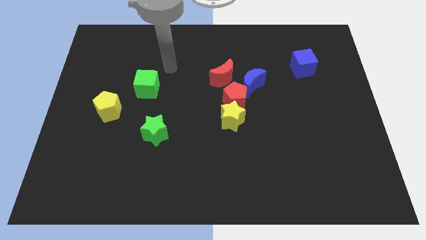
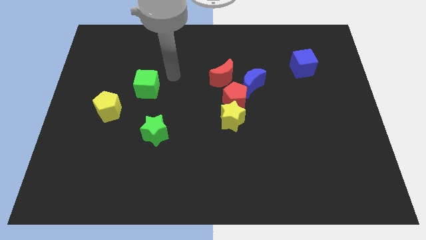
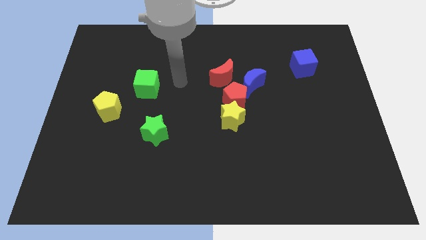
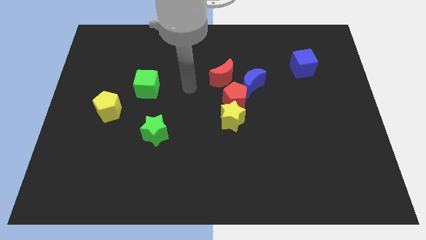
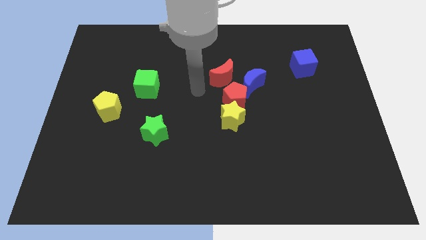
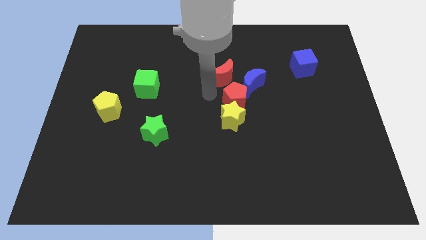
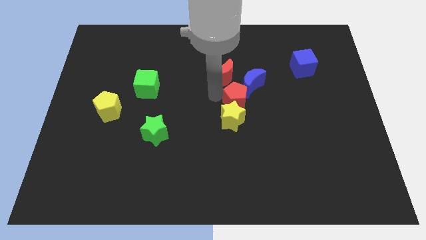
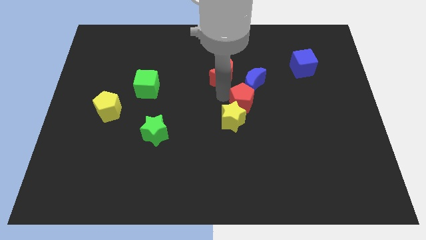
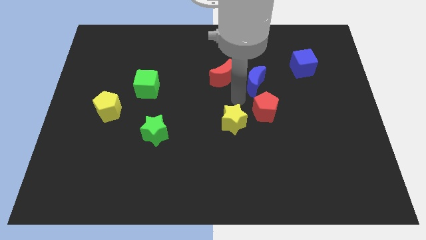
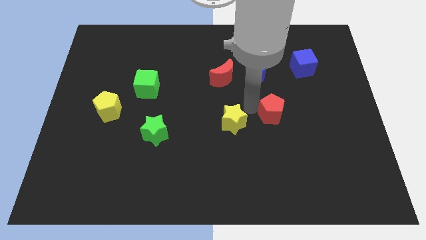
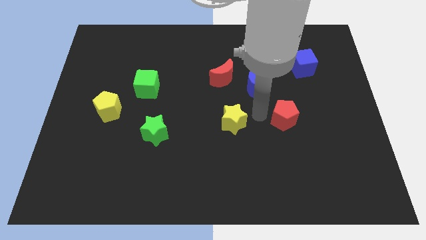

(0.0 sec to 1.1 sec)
move the yellow star away from the red pentagon

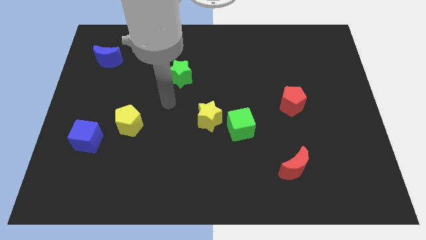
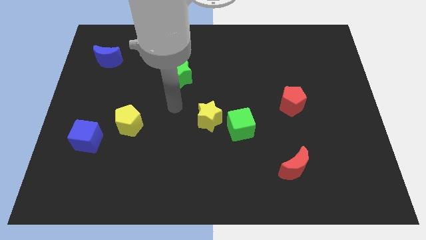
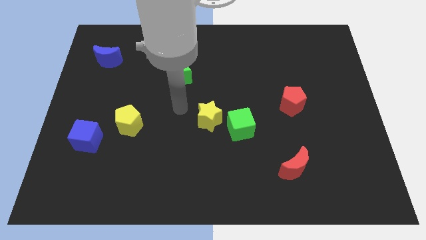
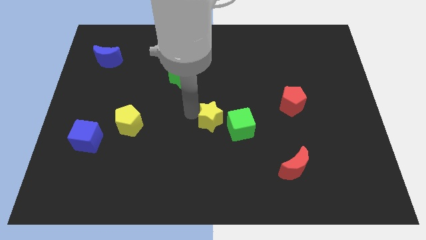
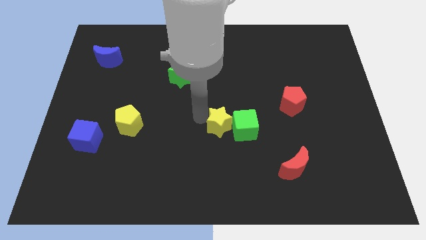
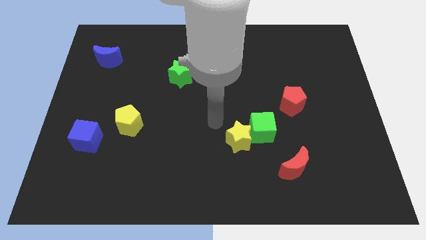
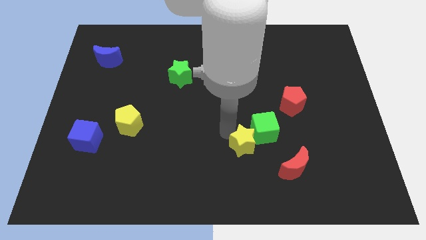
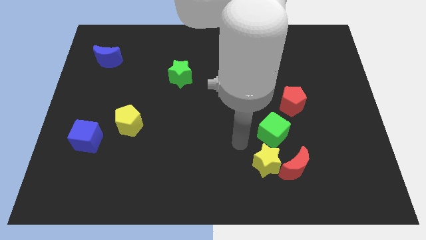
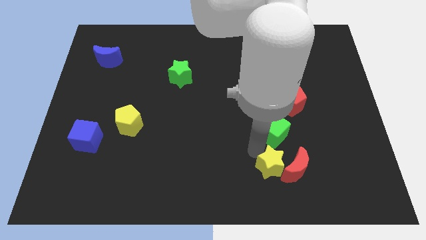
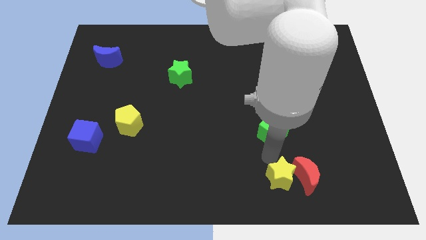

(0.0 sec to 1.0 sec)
pull the green cube apart from the yellow star

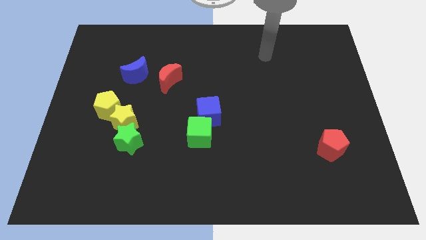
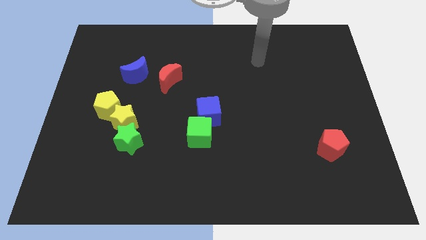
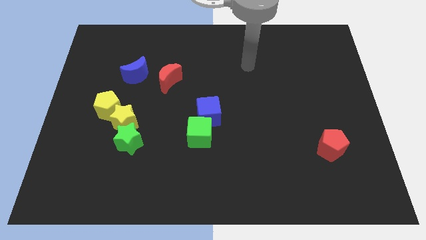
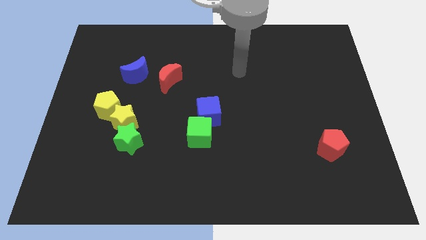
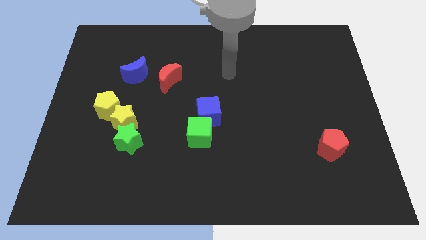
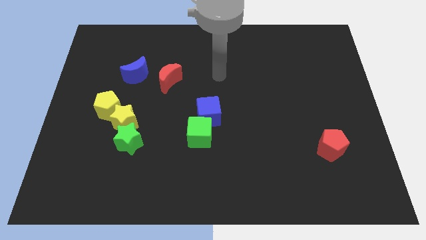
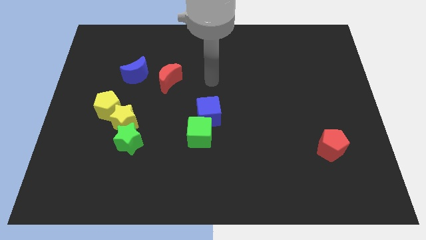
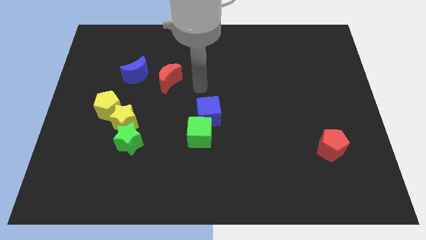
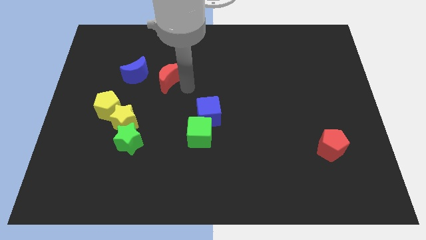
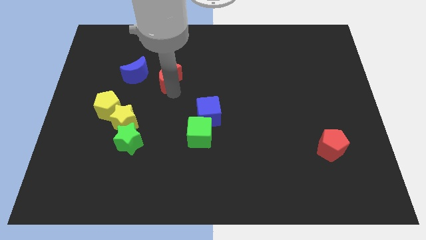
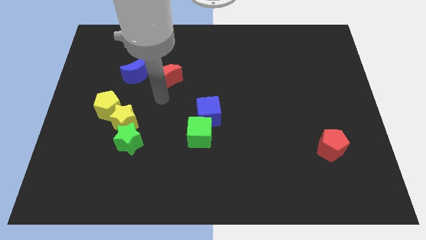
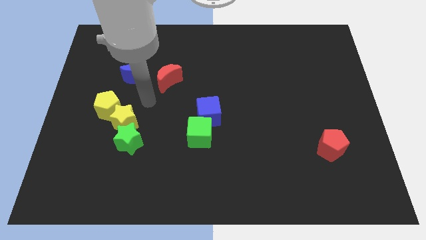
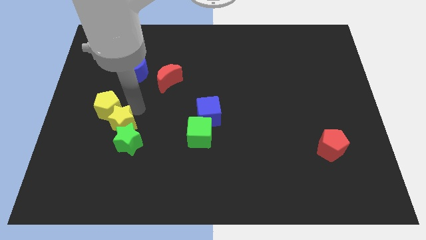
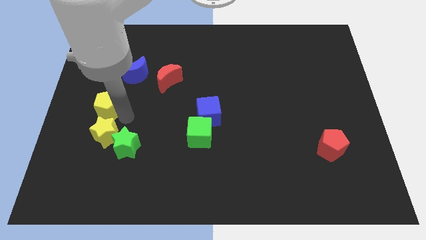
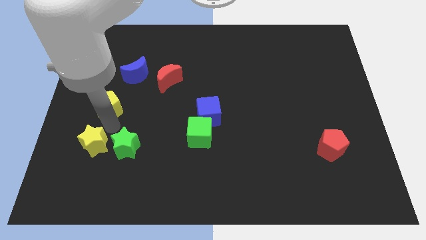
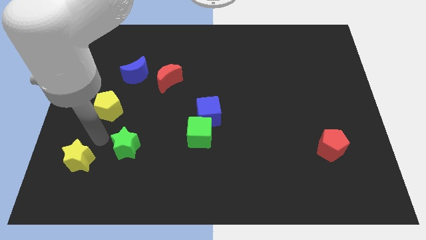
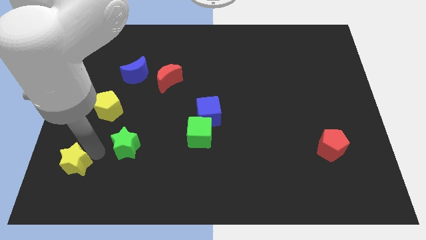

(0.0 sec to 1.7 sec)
separate the green star from the yellow star

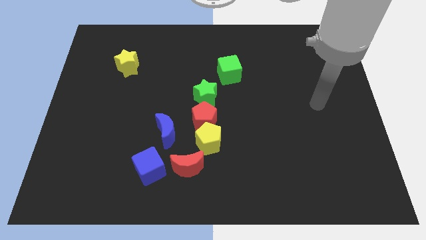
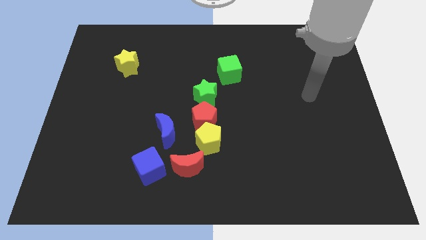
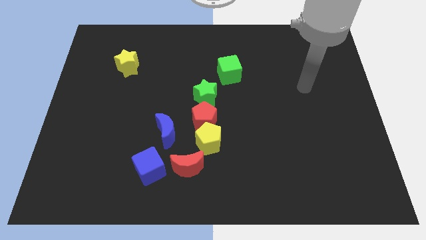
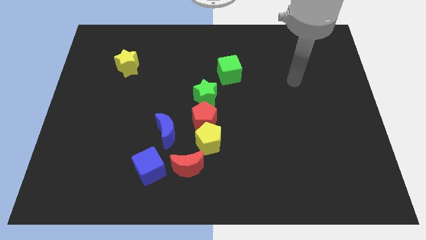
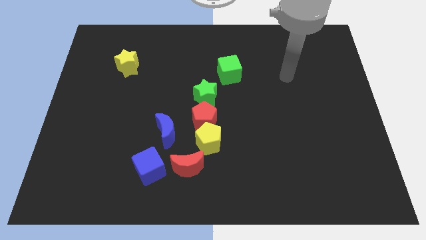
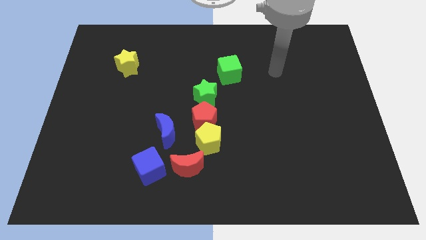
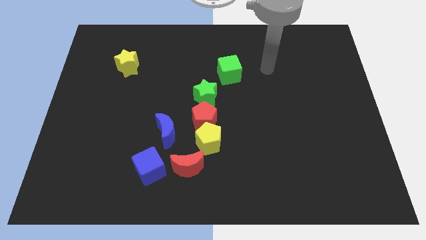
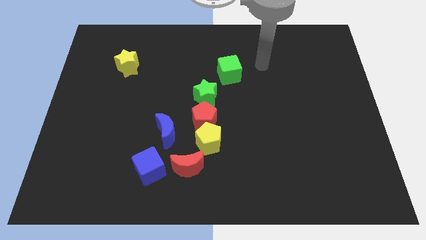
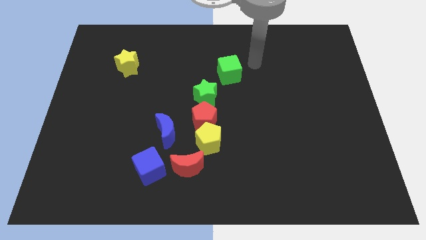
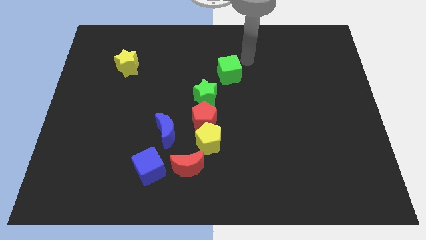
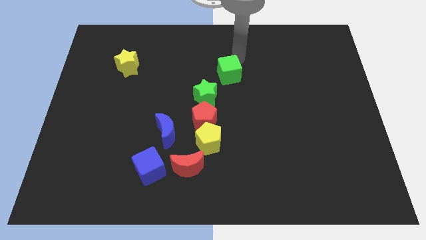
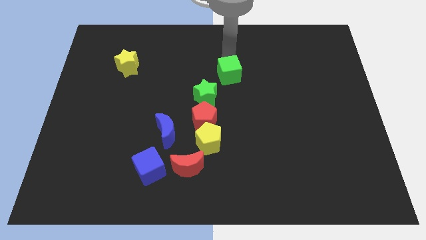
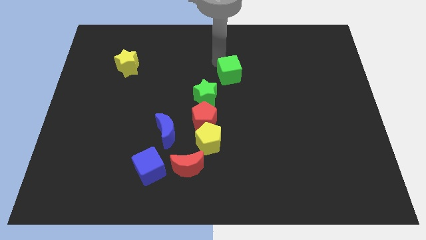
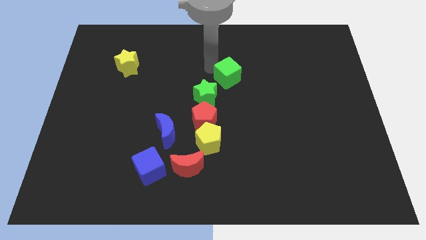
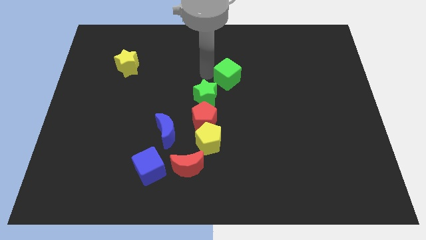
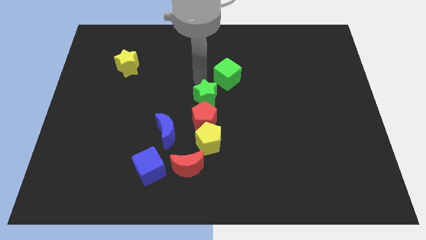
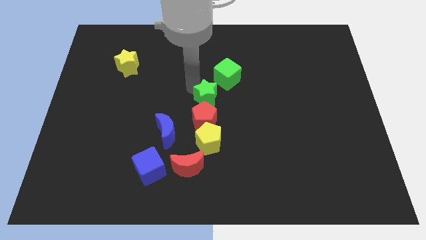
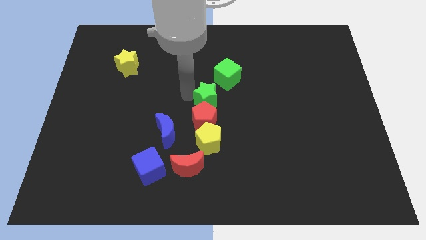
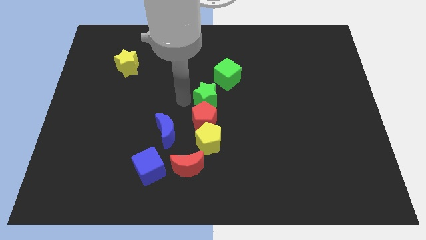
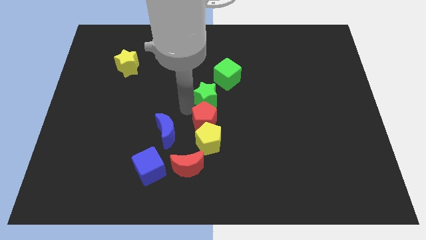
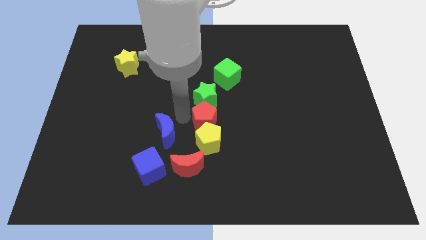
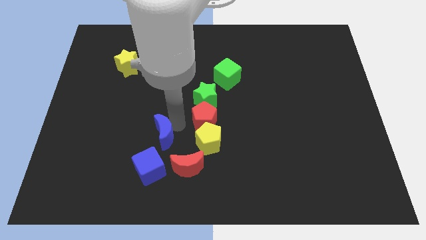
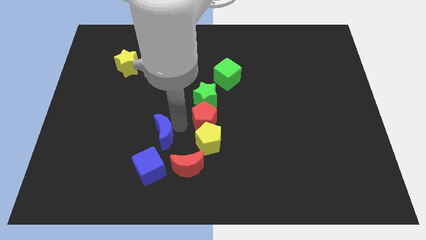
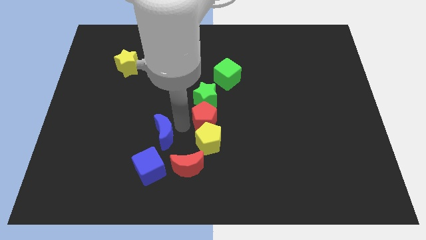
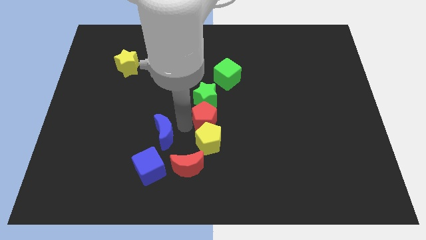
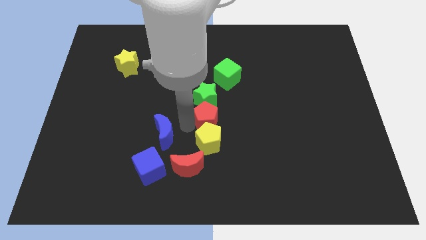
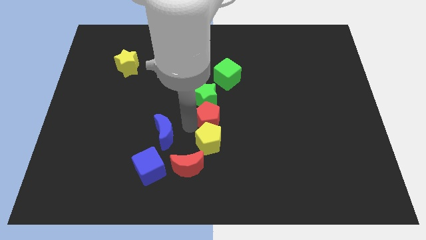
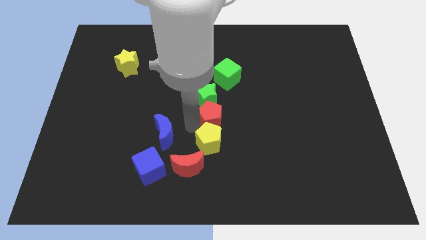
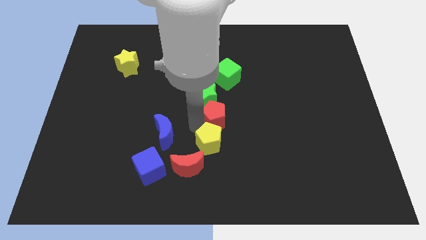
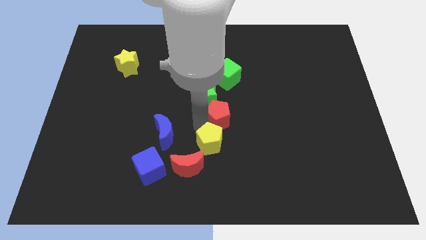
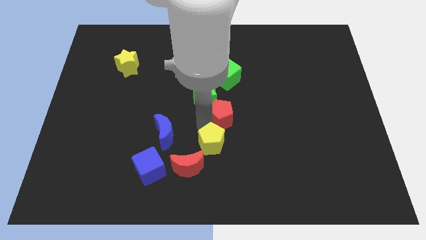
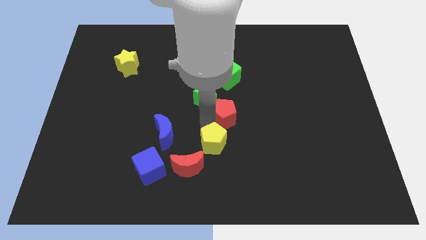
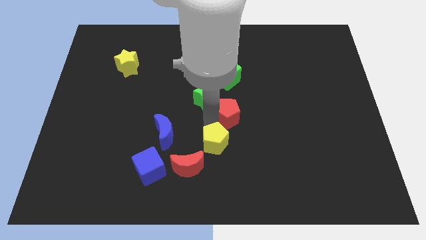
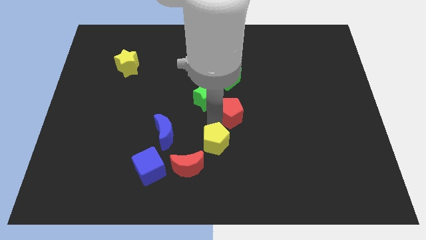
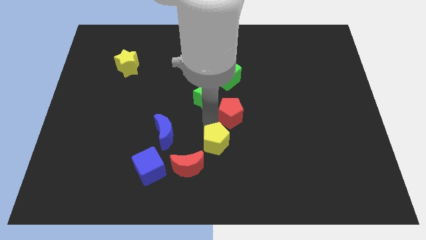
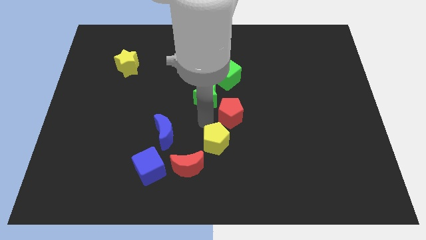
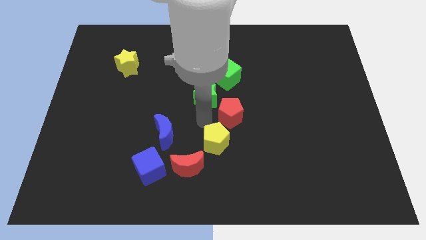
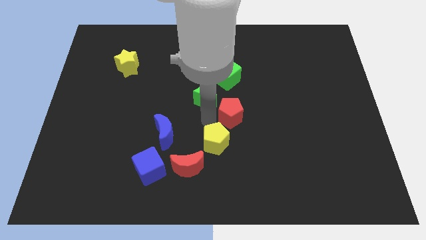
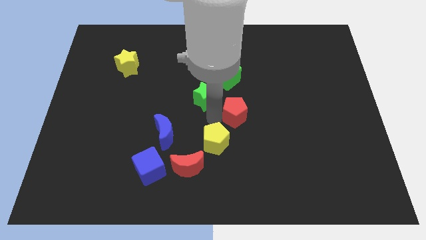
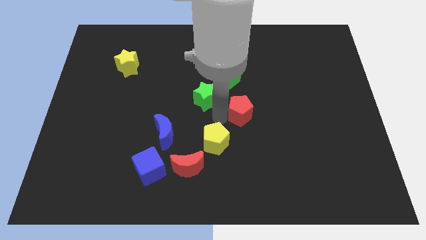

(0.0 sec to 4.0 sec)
move the red pentagon away from the yellow pentagon, green star, and blue moon

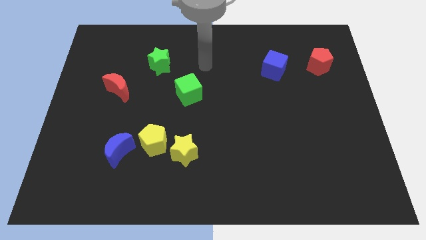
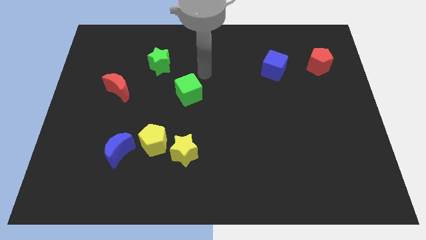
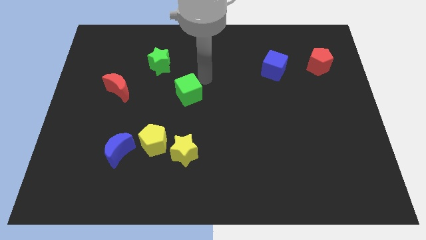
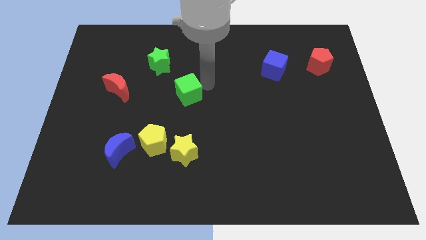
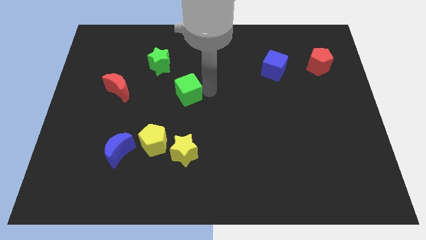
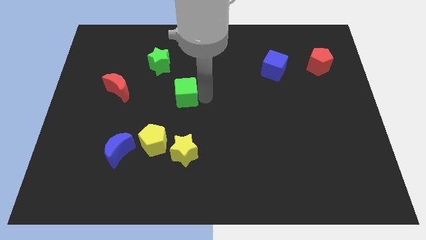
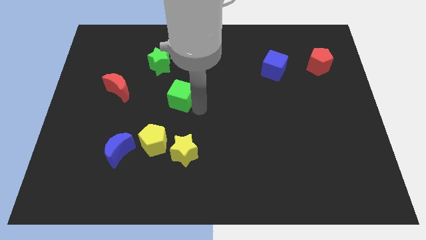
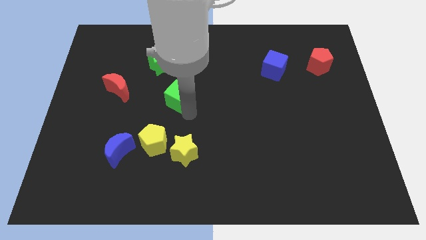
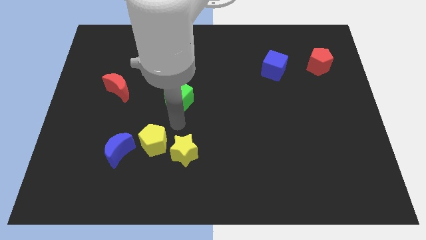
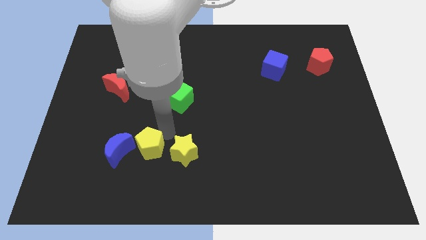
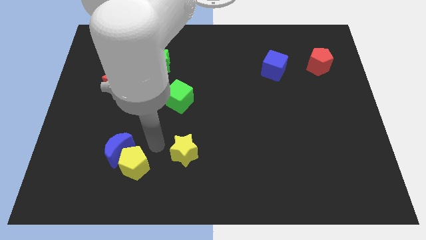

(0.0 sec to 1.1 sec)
separate the yellow star from the yellow pentagon

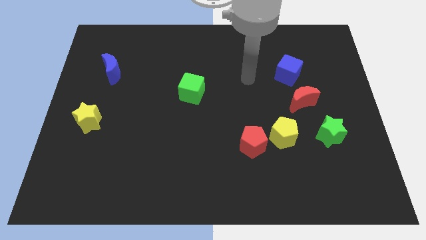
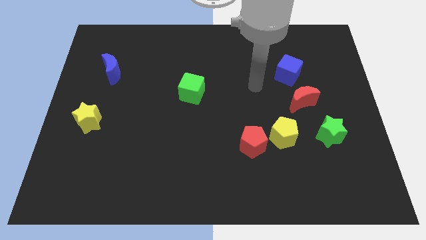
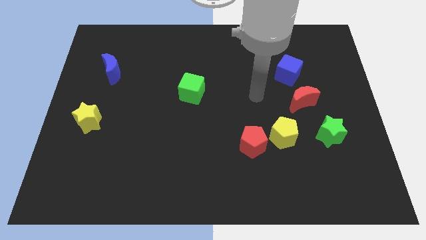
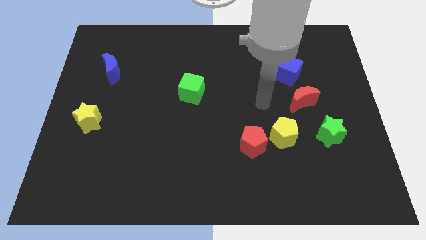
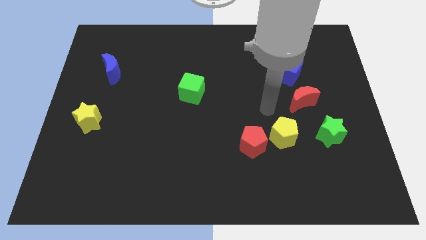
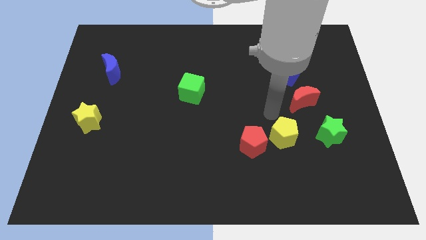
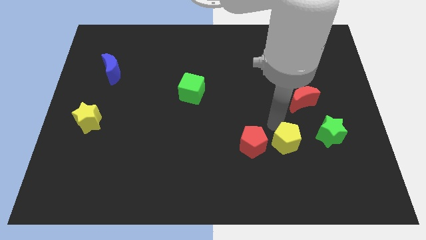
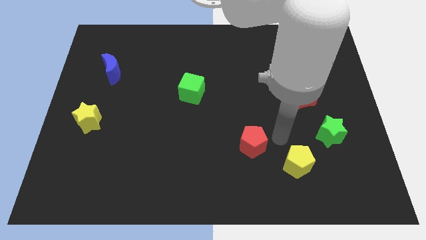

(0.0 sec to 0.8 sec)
separate the red pentagon from the yellow pentagon
